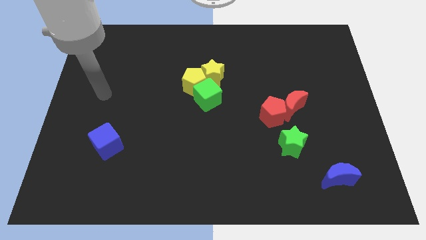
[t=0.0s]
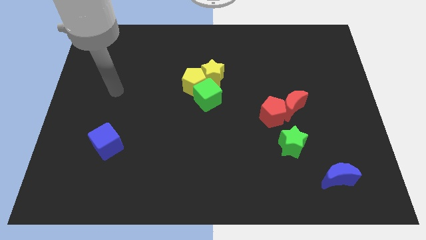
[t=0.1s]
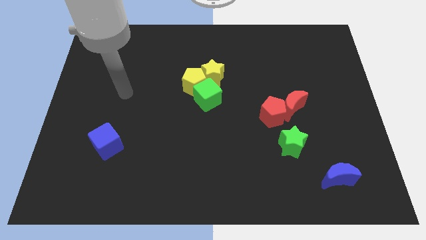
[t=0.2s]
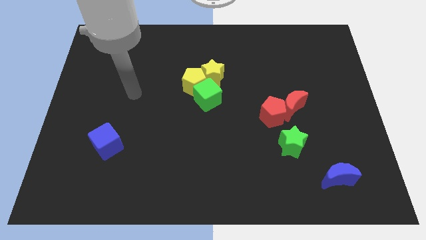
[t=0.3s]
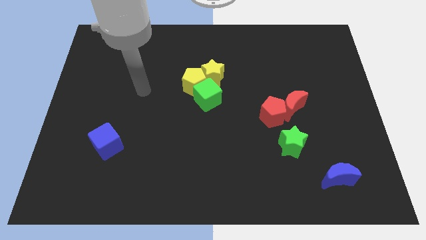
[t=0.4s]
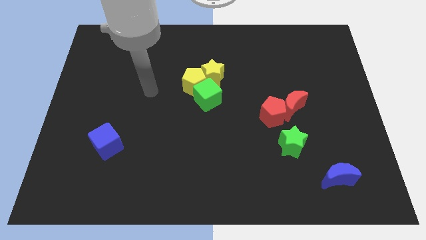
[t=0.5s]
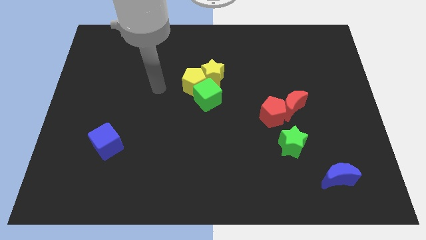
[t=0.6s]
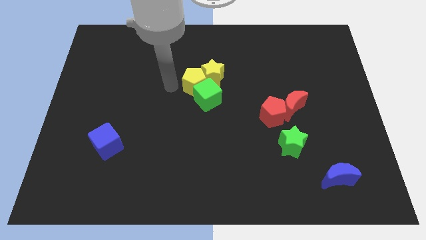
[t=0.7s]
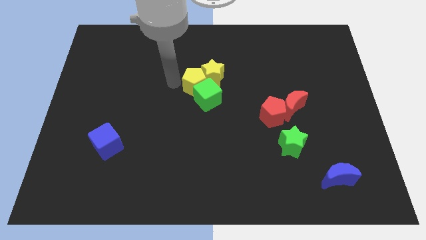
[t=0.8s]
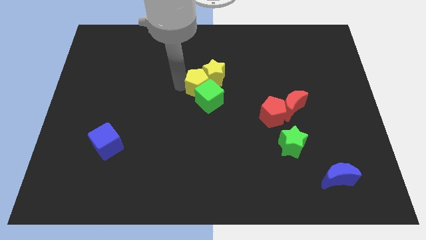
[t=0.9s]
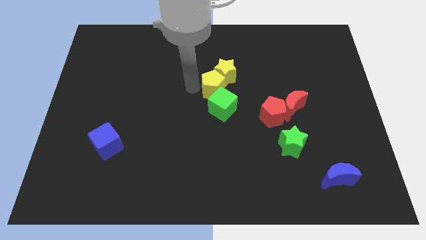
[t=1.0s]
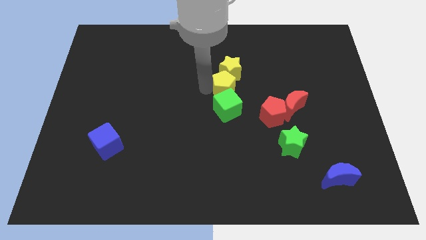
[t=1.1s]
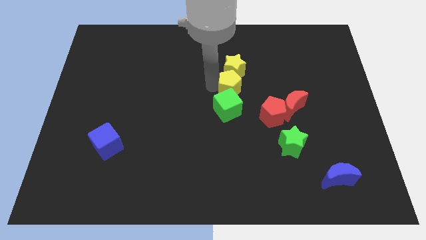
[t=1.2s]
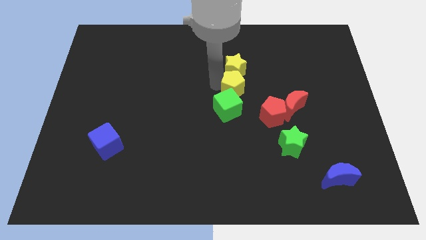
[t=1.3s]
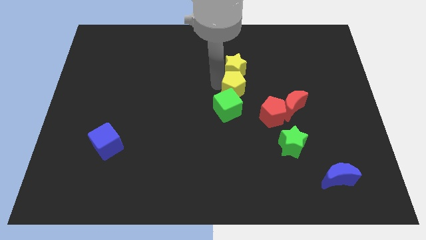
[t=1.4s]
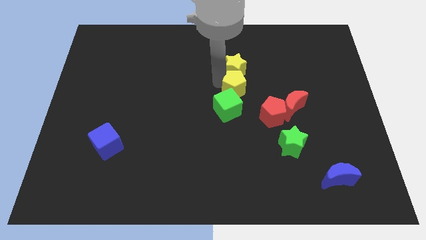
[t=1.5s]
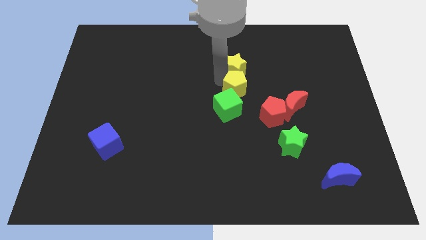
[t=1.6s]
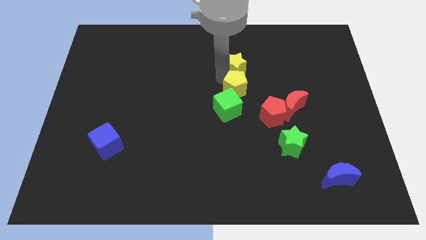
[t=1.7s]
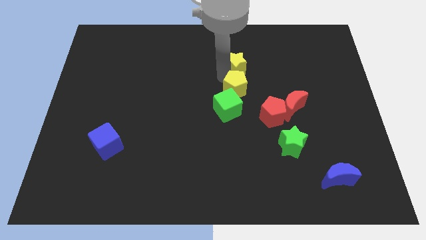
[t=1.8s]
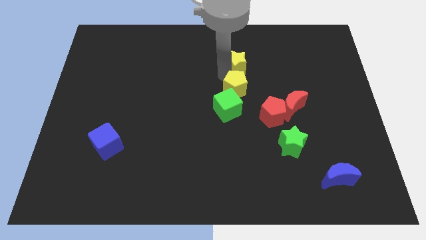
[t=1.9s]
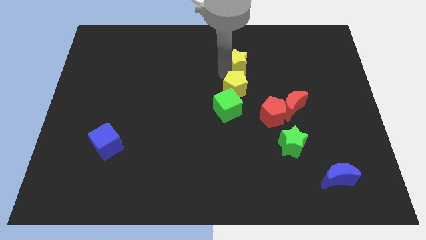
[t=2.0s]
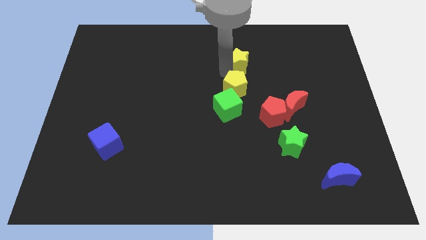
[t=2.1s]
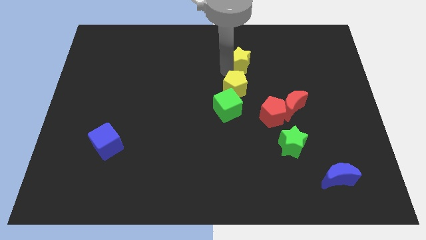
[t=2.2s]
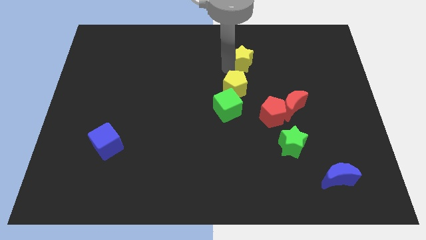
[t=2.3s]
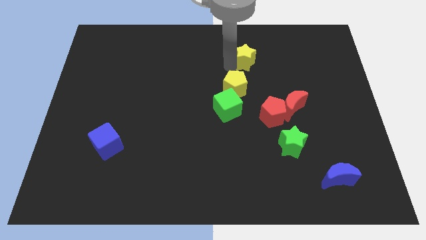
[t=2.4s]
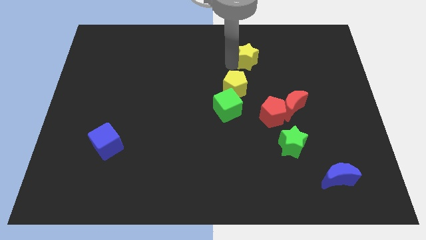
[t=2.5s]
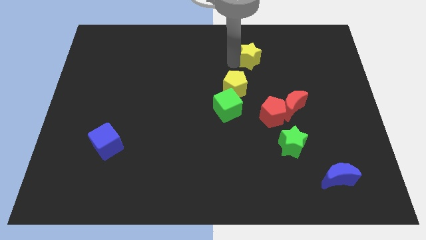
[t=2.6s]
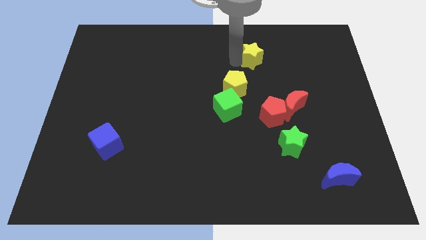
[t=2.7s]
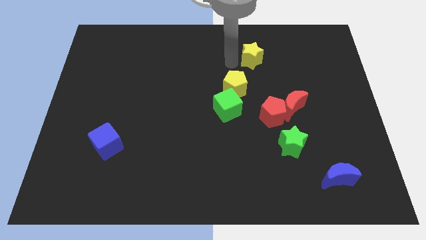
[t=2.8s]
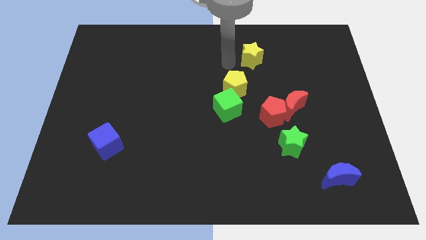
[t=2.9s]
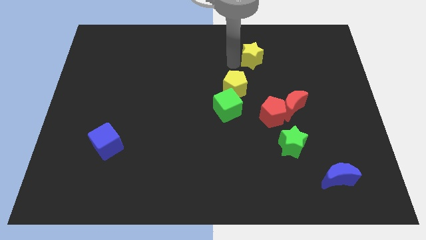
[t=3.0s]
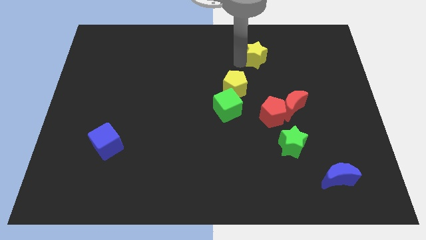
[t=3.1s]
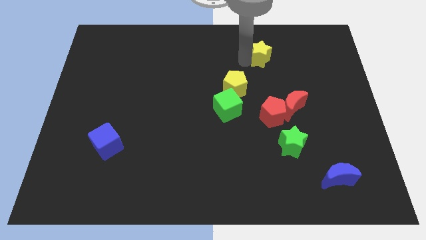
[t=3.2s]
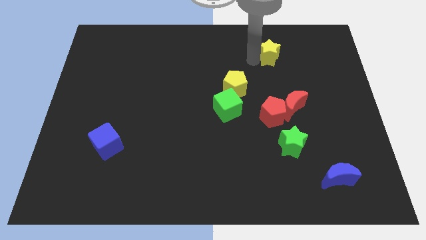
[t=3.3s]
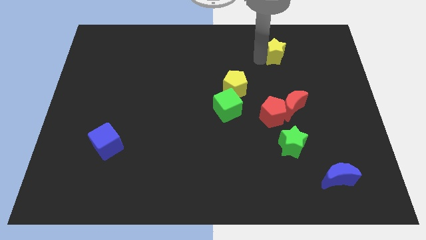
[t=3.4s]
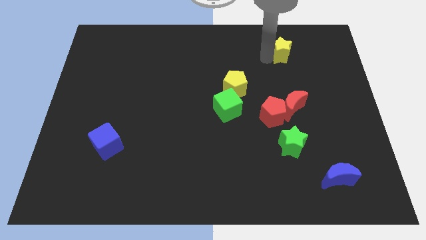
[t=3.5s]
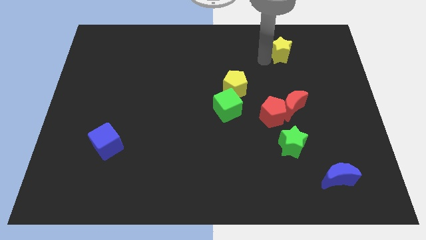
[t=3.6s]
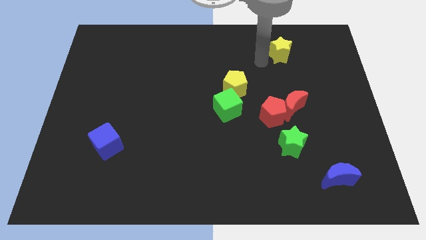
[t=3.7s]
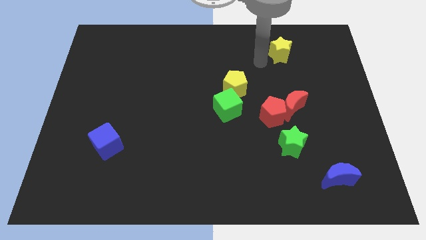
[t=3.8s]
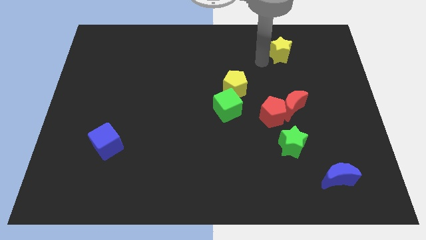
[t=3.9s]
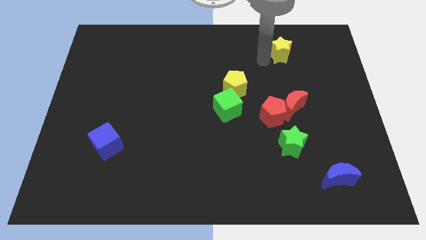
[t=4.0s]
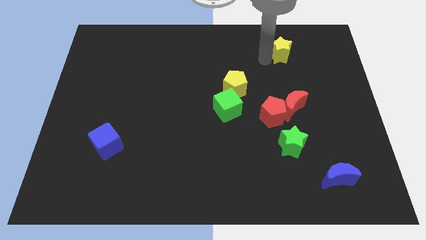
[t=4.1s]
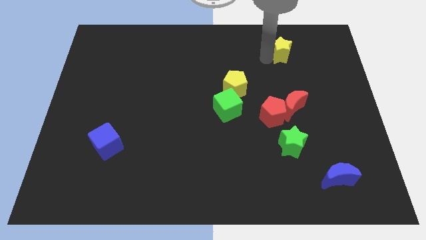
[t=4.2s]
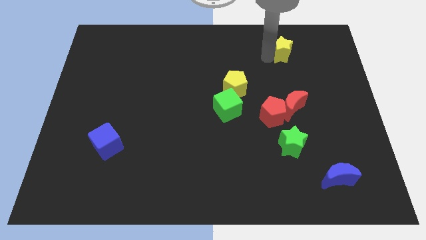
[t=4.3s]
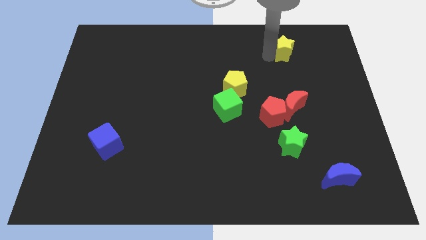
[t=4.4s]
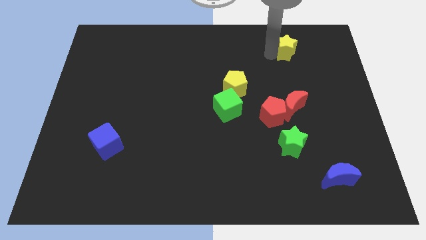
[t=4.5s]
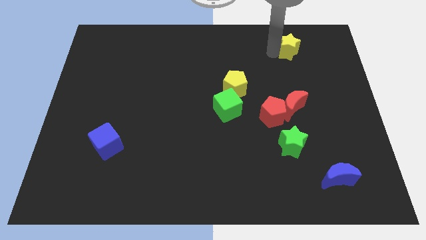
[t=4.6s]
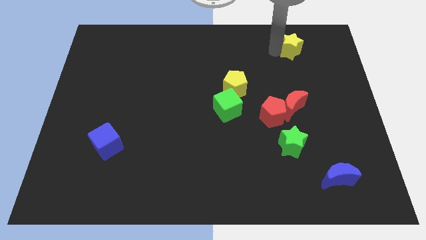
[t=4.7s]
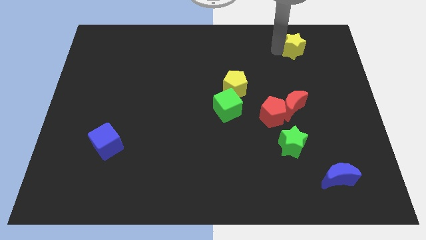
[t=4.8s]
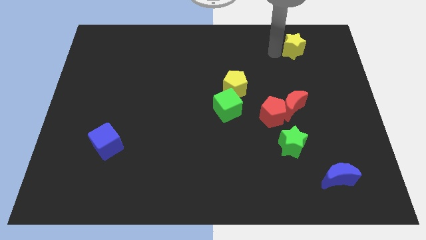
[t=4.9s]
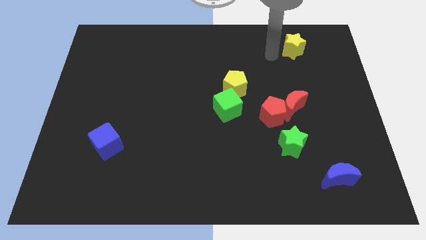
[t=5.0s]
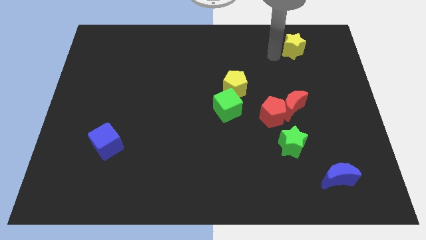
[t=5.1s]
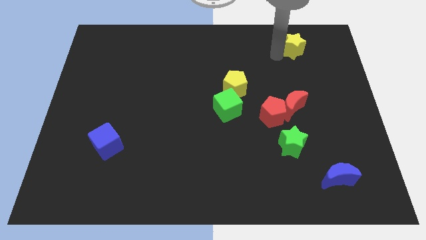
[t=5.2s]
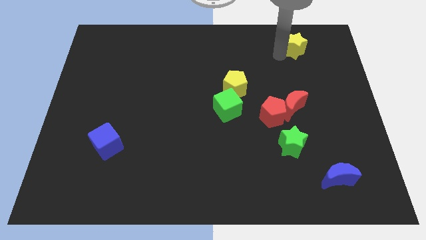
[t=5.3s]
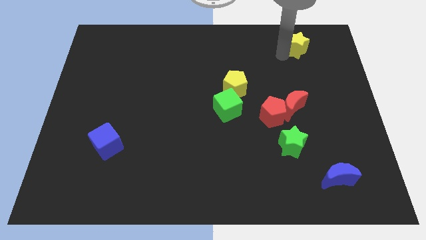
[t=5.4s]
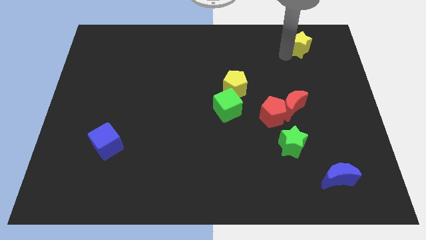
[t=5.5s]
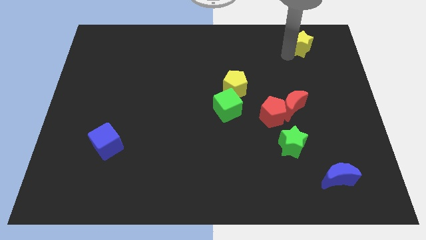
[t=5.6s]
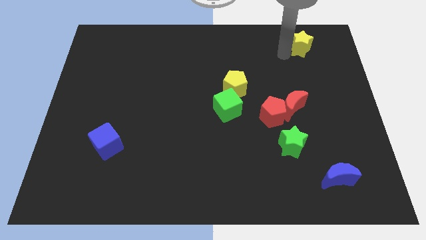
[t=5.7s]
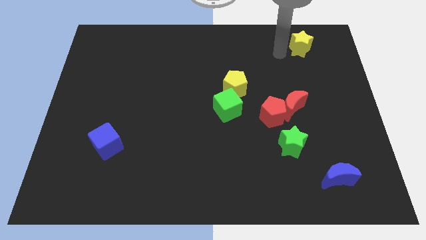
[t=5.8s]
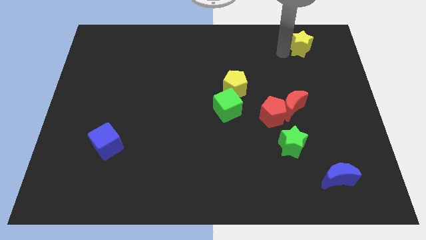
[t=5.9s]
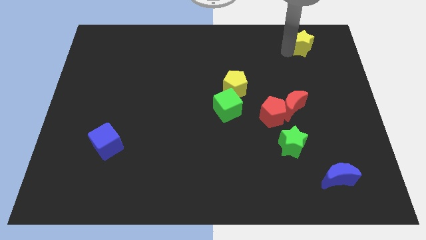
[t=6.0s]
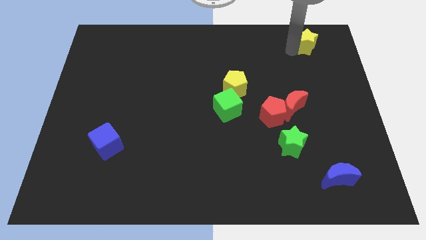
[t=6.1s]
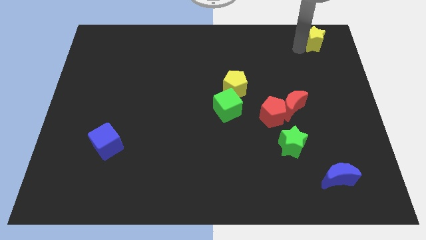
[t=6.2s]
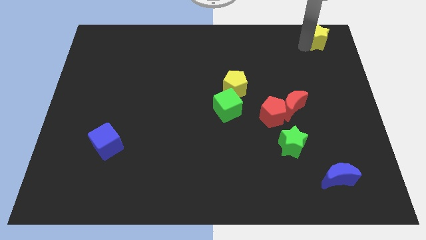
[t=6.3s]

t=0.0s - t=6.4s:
push the yellow star to the top right of the board

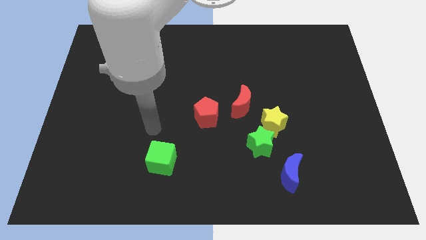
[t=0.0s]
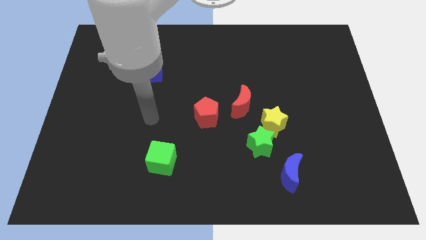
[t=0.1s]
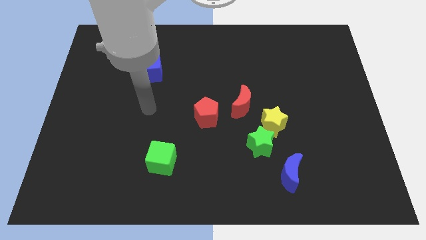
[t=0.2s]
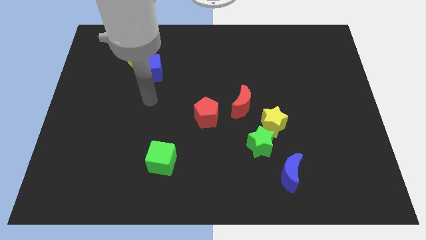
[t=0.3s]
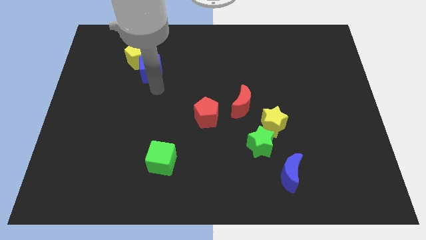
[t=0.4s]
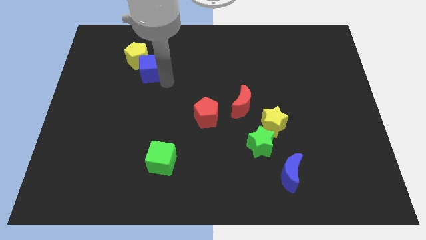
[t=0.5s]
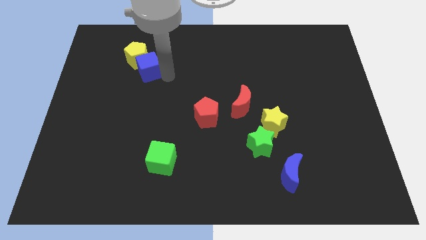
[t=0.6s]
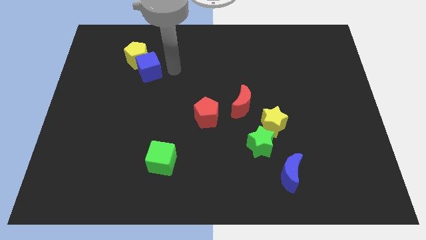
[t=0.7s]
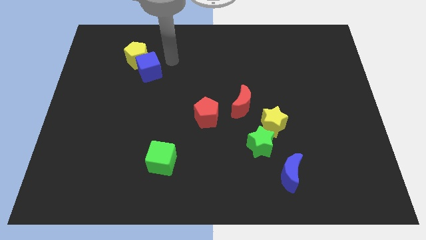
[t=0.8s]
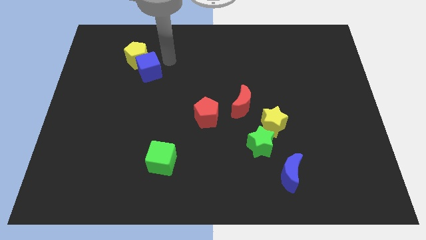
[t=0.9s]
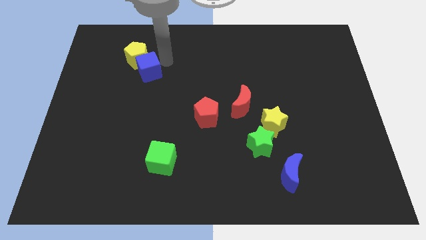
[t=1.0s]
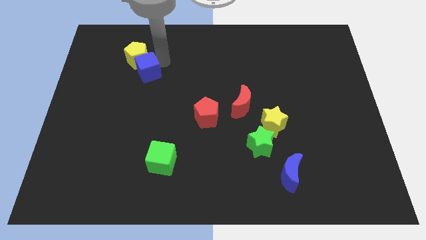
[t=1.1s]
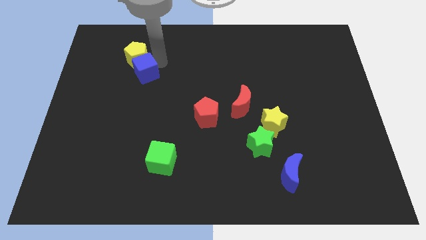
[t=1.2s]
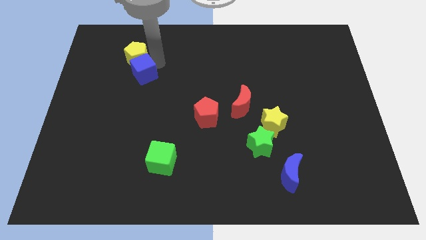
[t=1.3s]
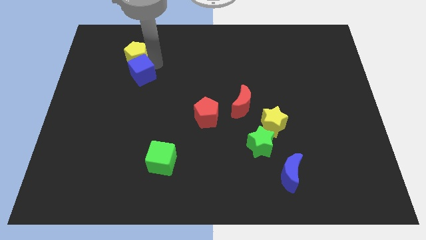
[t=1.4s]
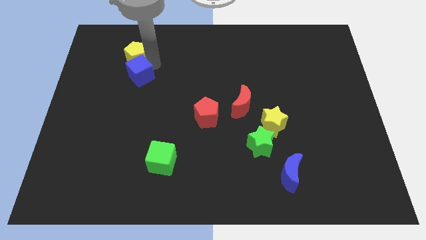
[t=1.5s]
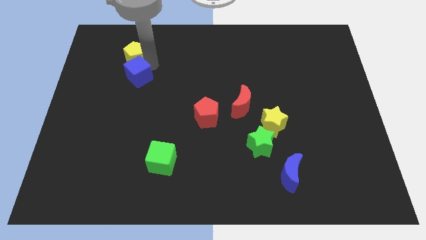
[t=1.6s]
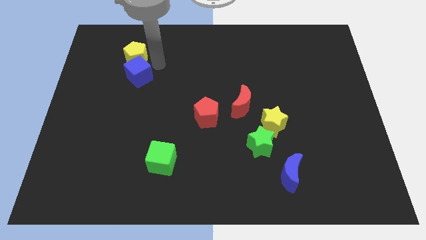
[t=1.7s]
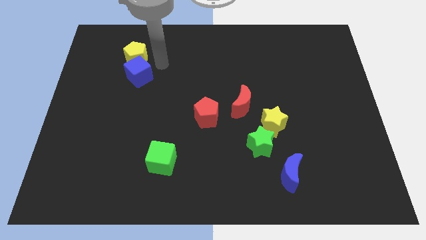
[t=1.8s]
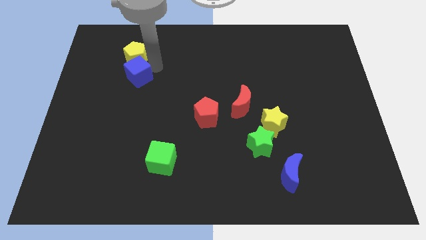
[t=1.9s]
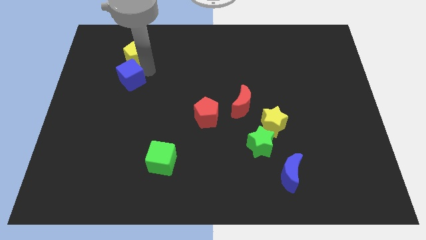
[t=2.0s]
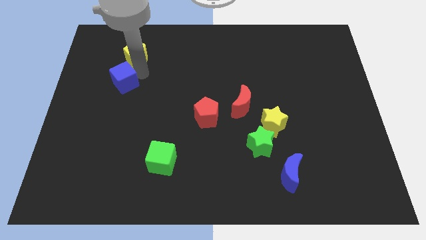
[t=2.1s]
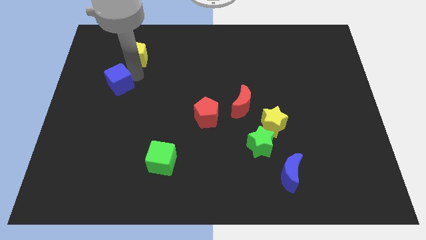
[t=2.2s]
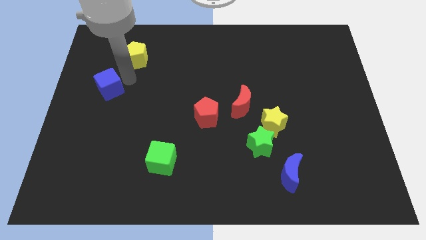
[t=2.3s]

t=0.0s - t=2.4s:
put the blue cube to the left side
